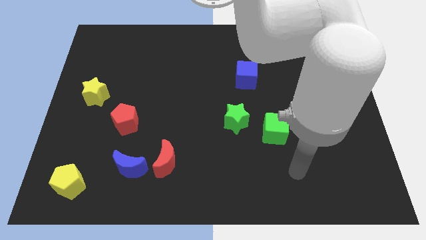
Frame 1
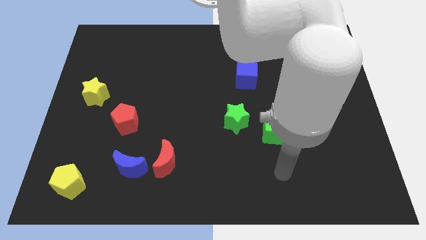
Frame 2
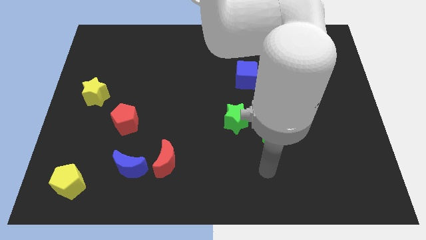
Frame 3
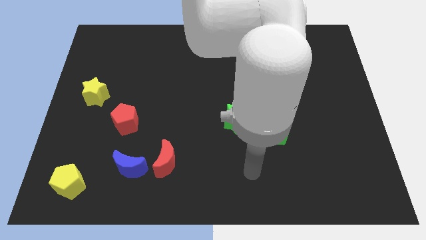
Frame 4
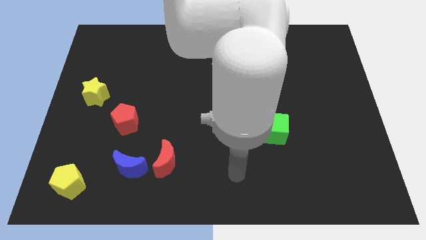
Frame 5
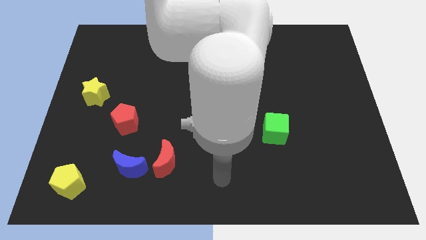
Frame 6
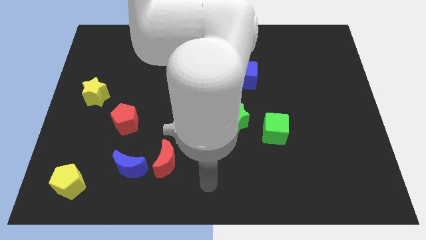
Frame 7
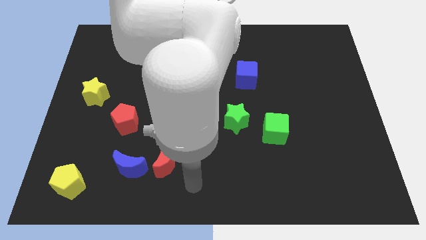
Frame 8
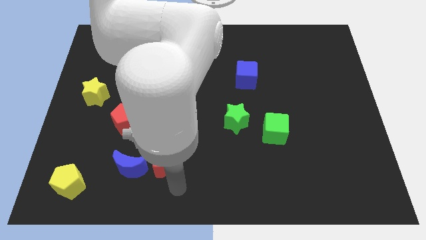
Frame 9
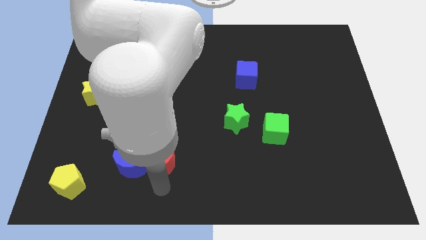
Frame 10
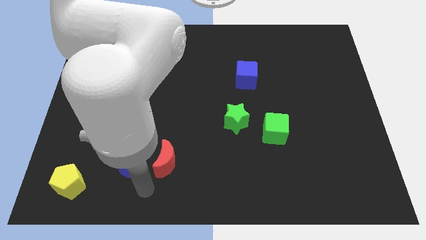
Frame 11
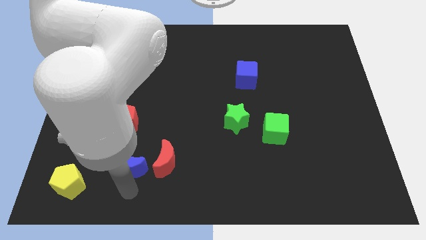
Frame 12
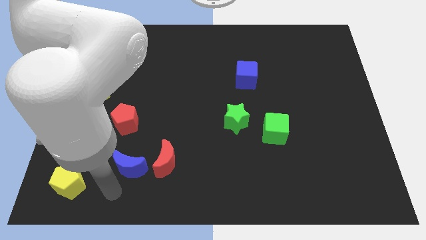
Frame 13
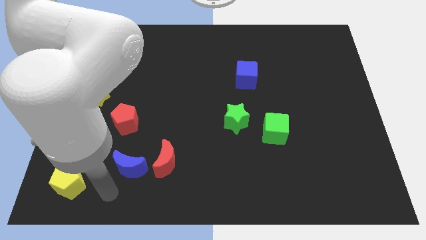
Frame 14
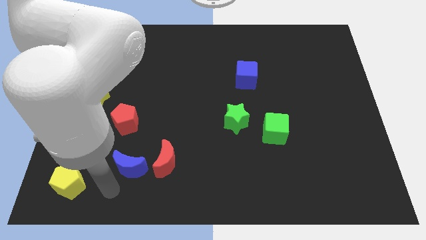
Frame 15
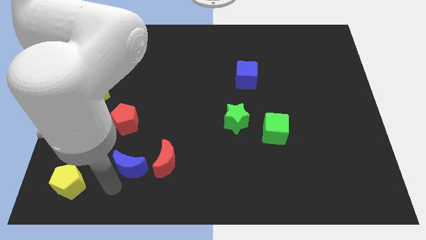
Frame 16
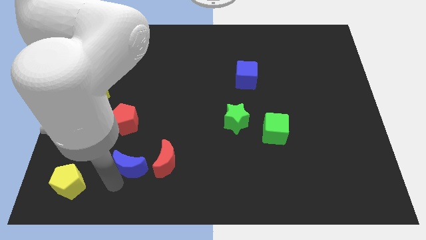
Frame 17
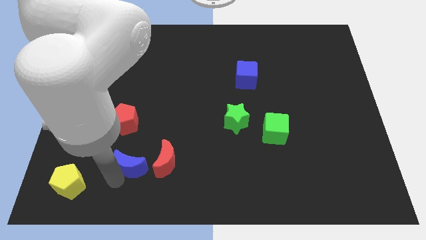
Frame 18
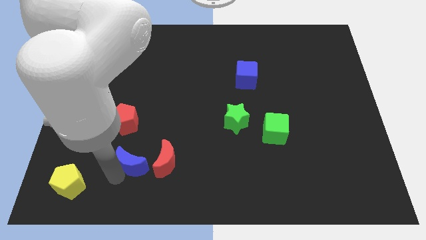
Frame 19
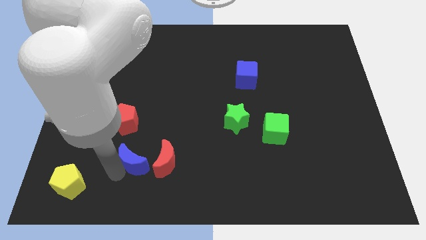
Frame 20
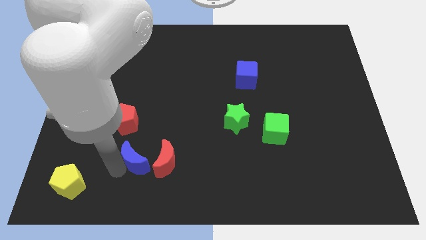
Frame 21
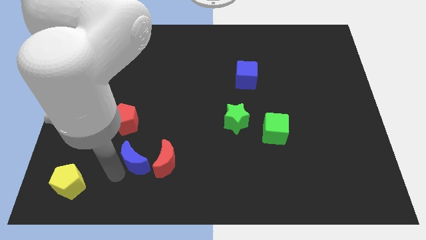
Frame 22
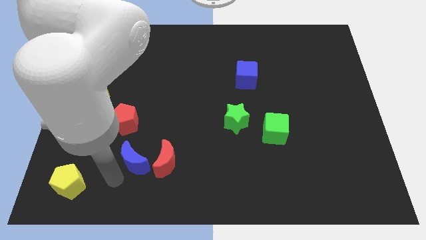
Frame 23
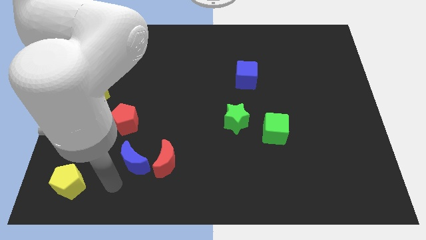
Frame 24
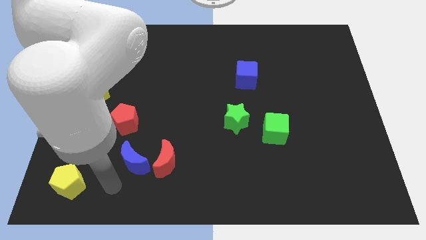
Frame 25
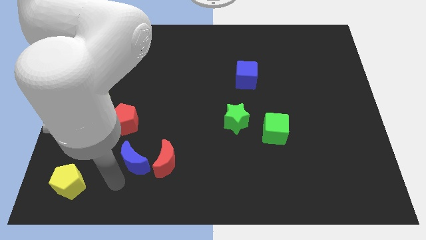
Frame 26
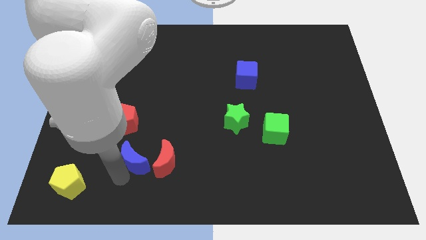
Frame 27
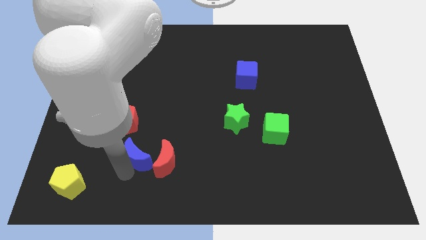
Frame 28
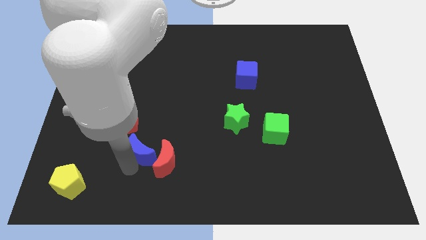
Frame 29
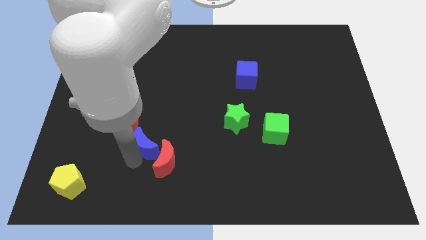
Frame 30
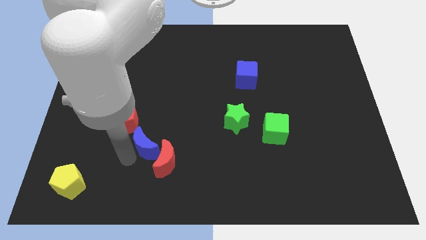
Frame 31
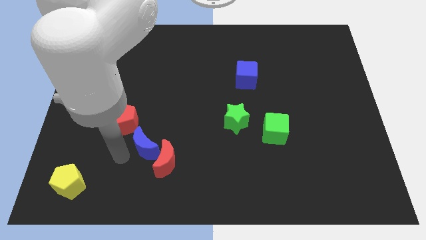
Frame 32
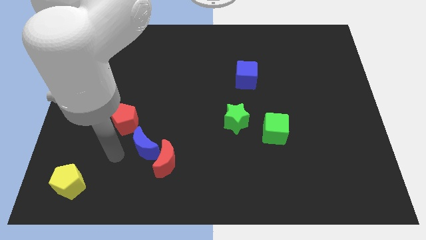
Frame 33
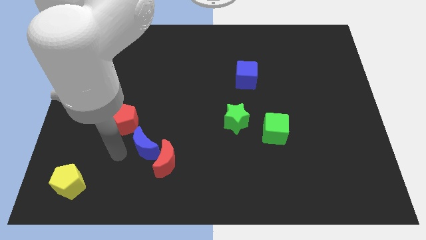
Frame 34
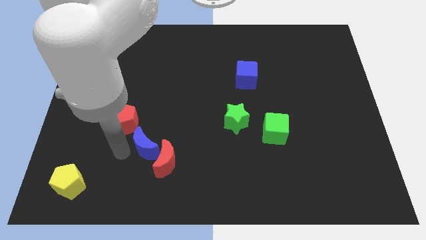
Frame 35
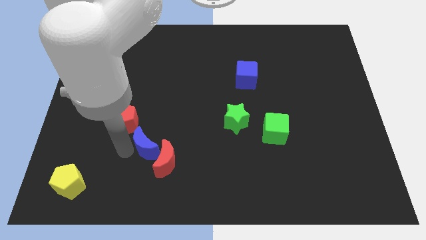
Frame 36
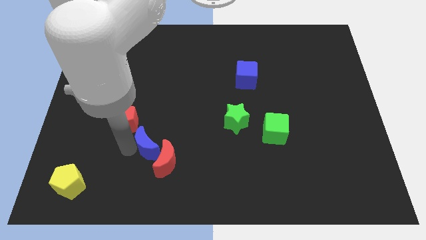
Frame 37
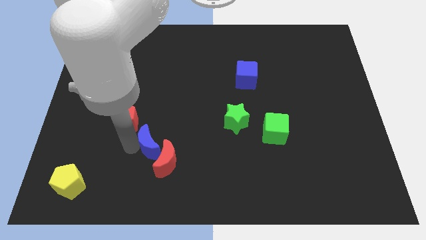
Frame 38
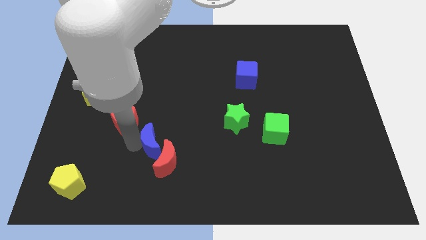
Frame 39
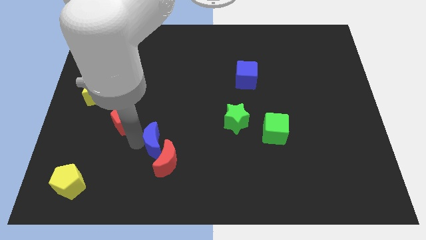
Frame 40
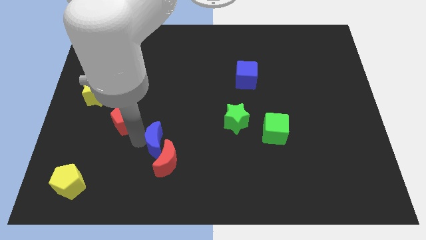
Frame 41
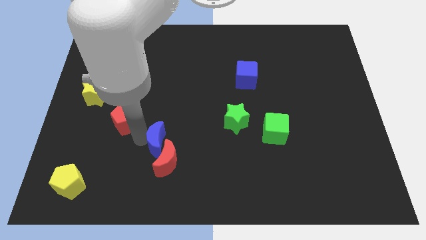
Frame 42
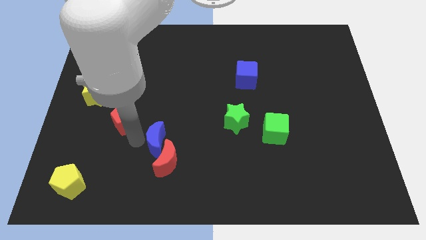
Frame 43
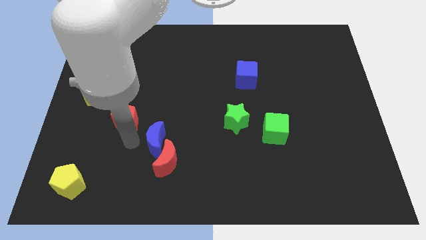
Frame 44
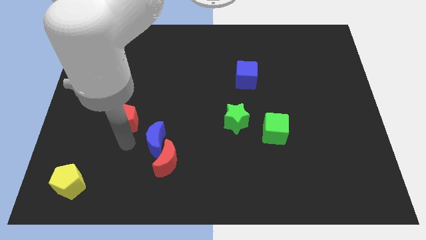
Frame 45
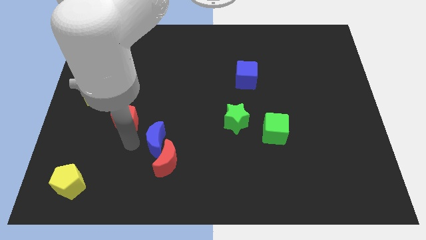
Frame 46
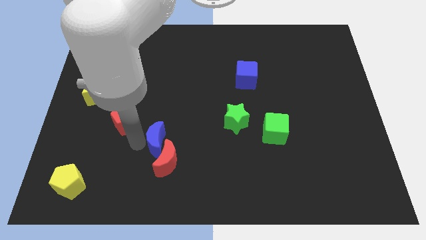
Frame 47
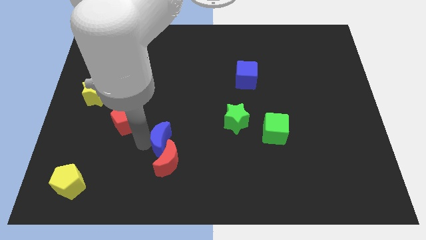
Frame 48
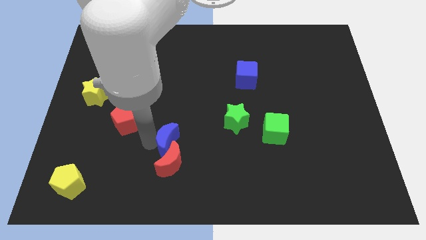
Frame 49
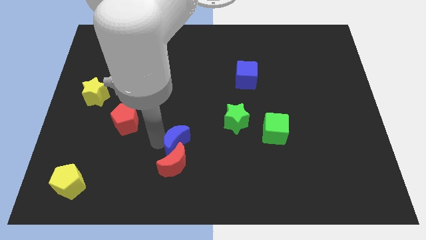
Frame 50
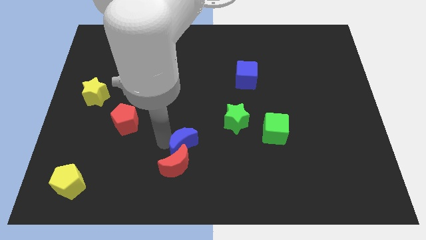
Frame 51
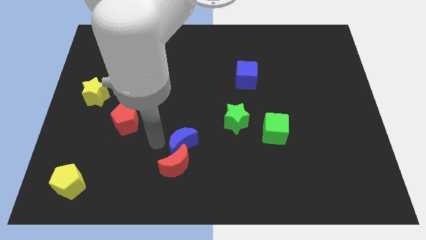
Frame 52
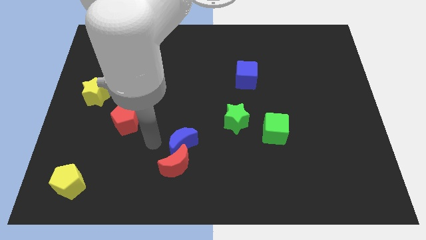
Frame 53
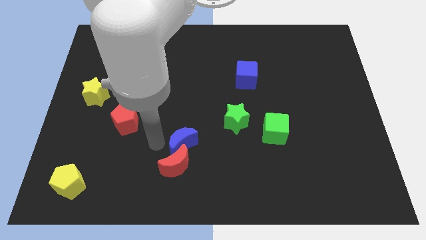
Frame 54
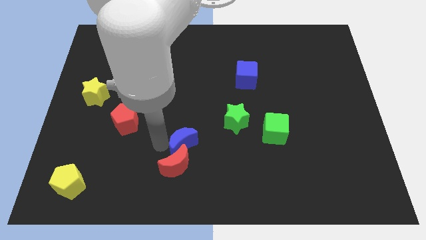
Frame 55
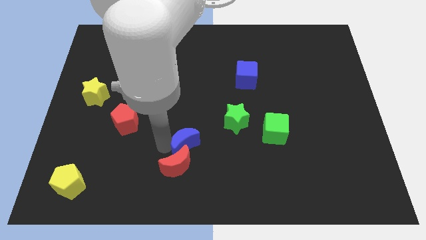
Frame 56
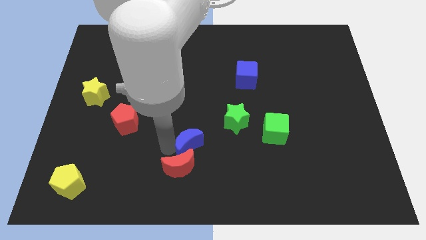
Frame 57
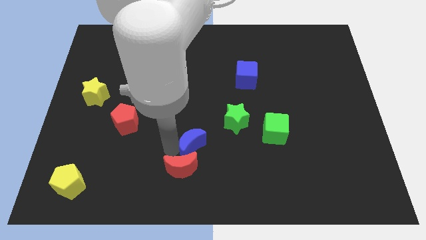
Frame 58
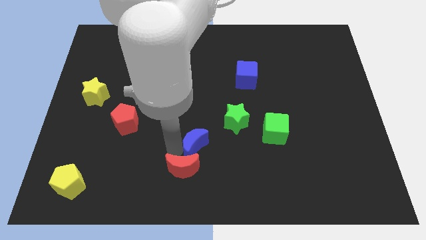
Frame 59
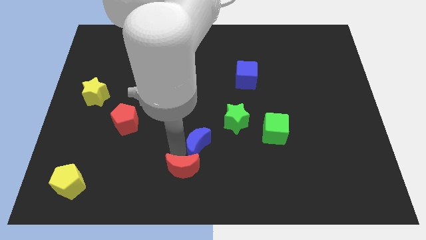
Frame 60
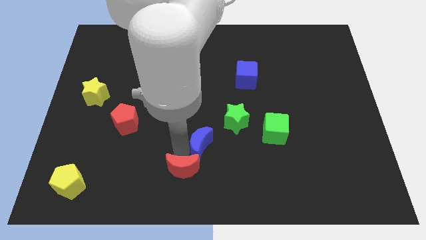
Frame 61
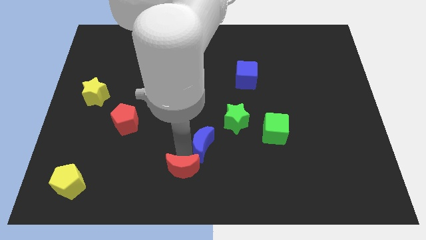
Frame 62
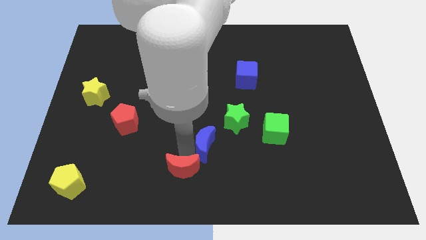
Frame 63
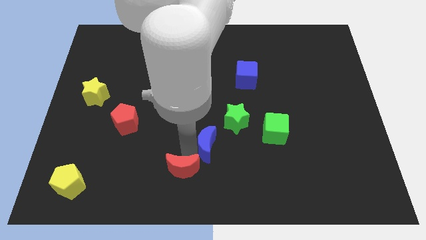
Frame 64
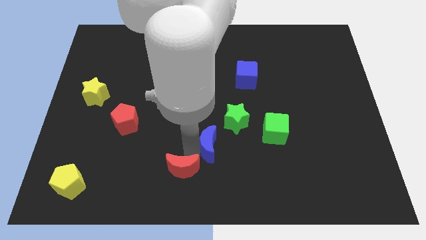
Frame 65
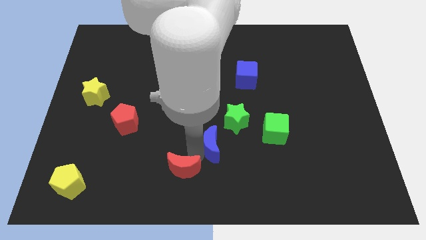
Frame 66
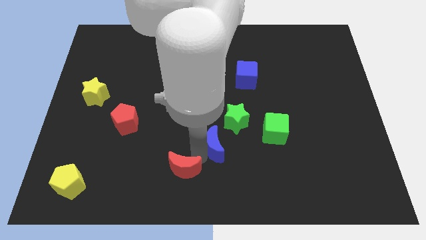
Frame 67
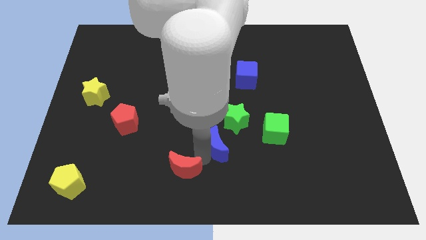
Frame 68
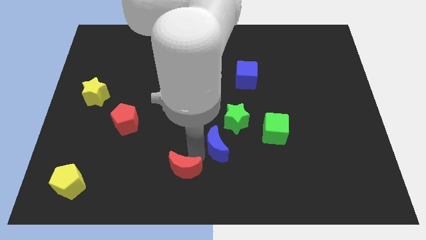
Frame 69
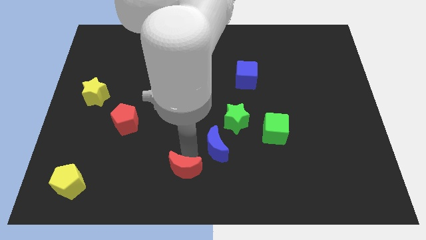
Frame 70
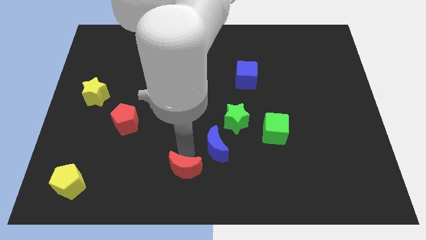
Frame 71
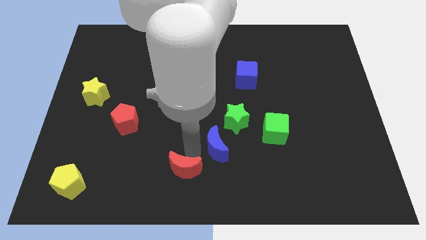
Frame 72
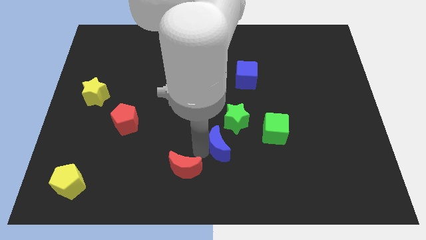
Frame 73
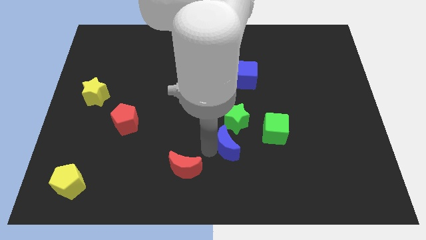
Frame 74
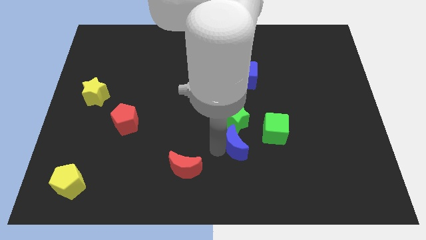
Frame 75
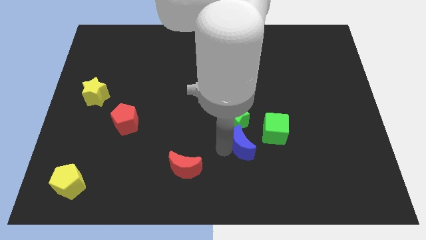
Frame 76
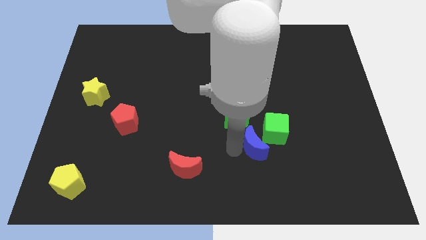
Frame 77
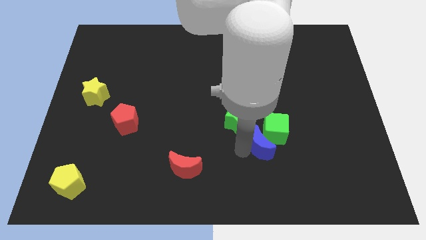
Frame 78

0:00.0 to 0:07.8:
move the blue moon towards the green cube
